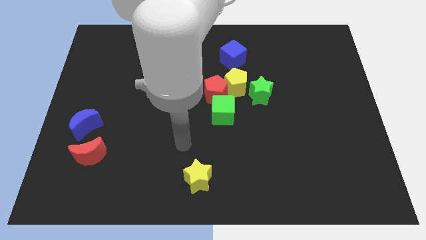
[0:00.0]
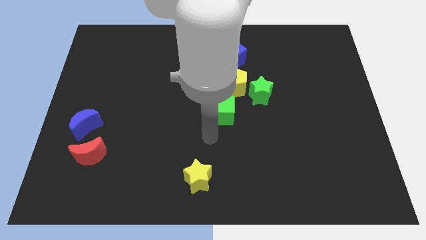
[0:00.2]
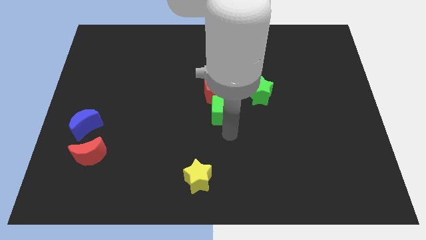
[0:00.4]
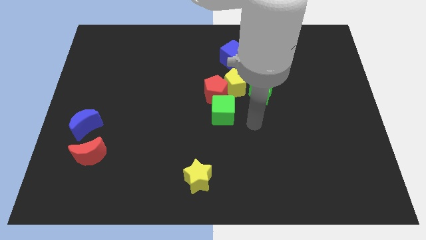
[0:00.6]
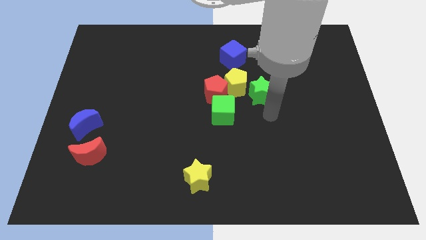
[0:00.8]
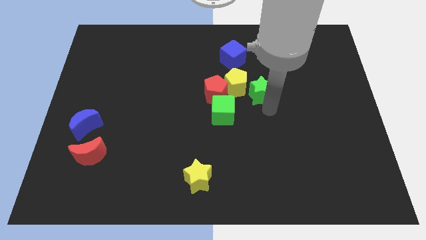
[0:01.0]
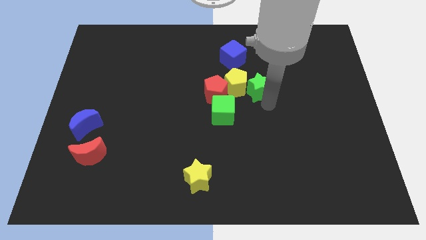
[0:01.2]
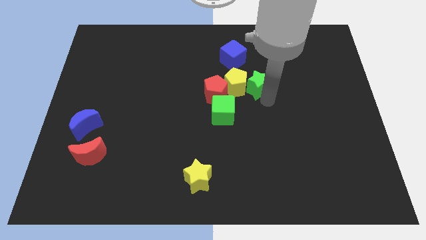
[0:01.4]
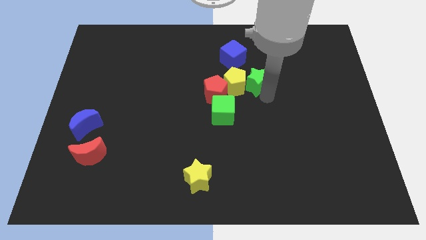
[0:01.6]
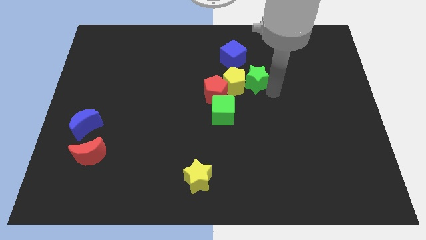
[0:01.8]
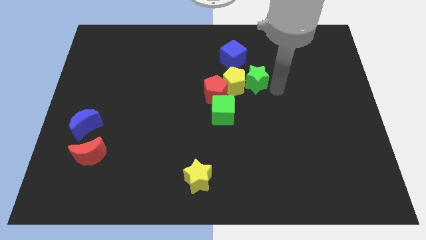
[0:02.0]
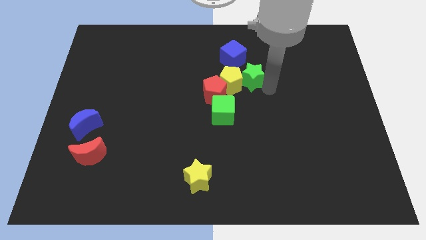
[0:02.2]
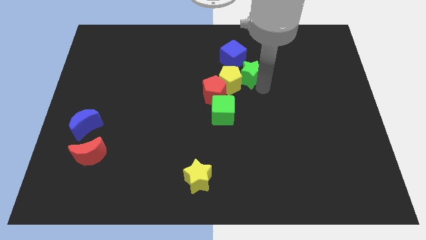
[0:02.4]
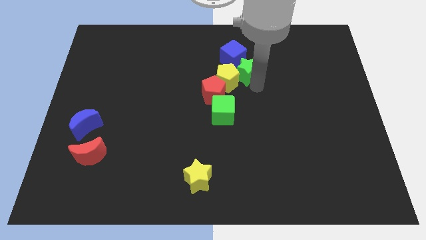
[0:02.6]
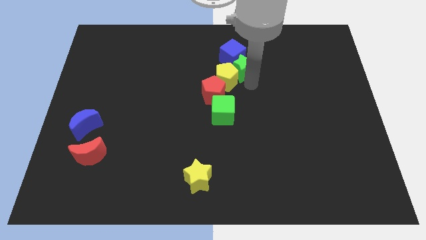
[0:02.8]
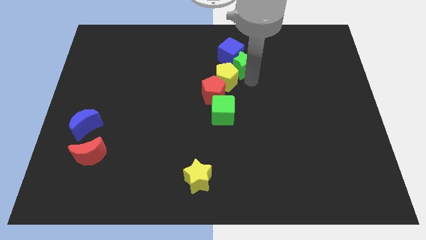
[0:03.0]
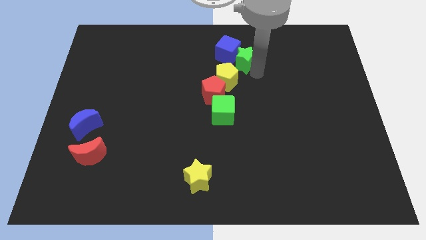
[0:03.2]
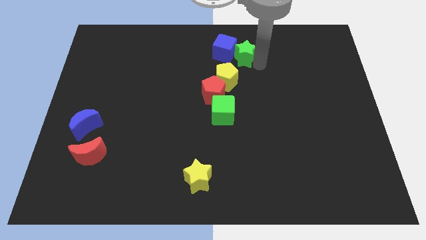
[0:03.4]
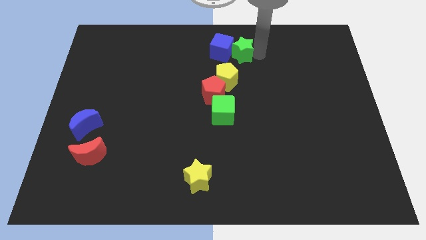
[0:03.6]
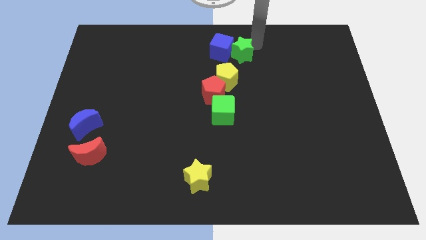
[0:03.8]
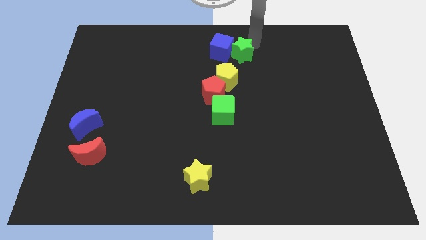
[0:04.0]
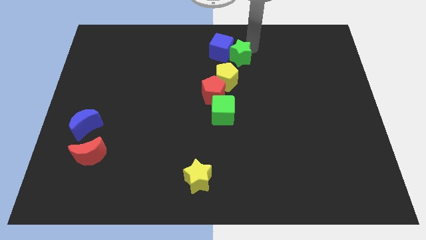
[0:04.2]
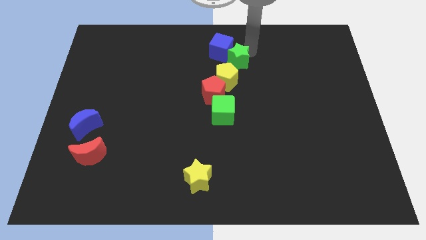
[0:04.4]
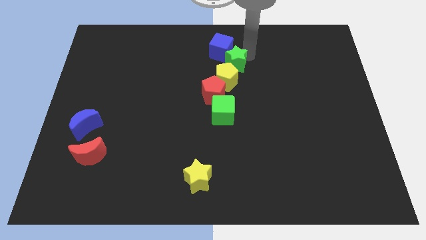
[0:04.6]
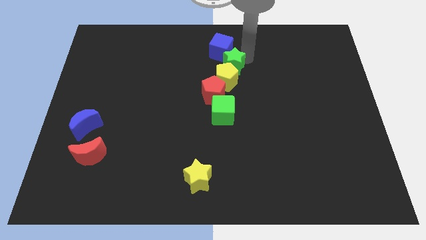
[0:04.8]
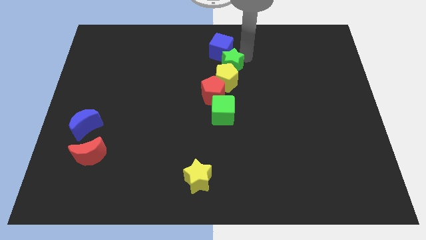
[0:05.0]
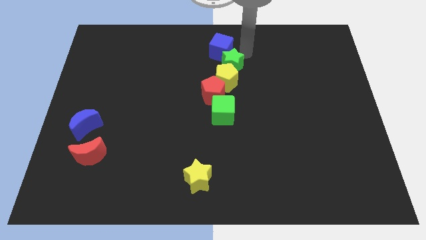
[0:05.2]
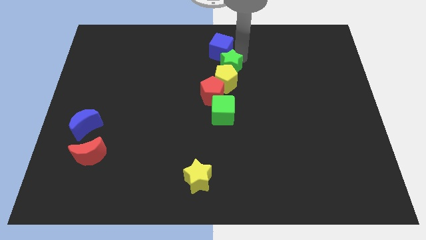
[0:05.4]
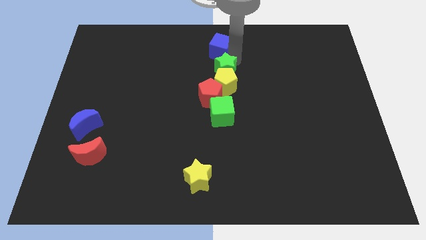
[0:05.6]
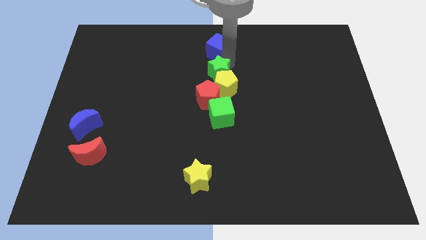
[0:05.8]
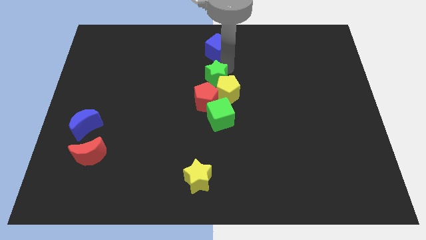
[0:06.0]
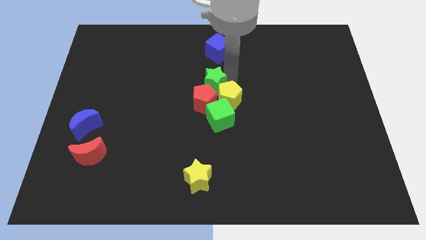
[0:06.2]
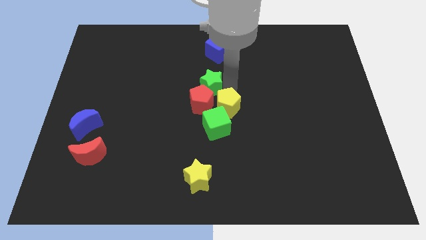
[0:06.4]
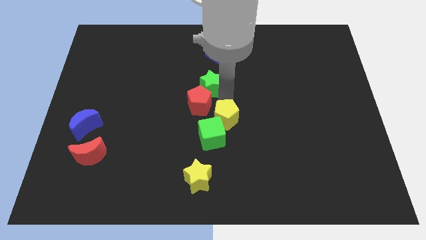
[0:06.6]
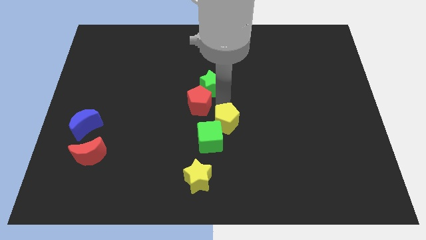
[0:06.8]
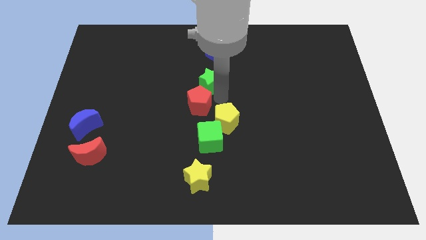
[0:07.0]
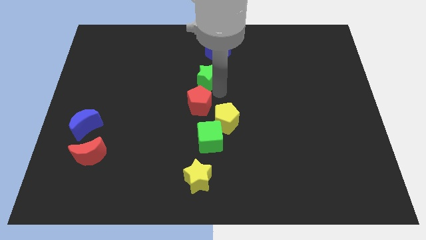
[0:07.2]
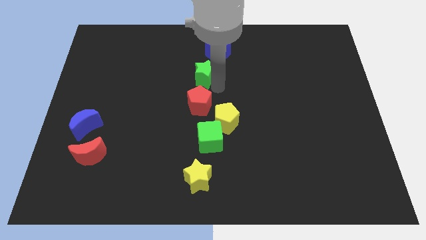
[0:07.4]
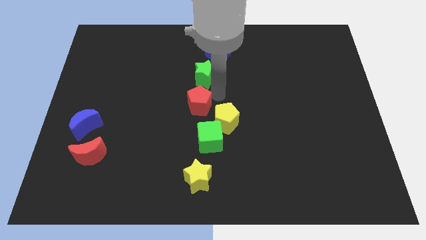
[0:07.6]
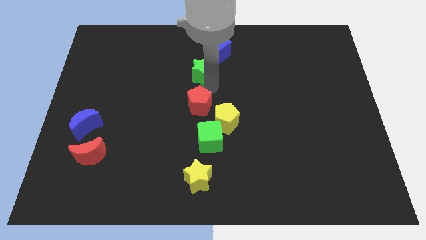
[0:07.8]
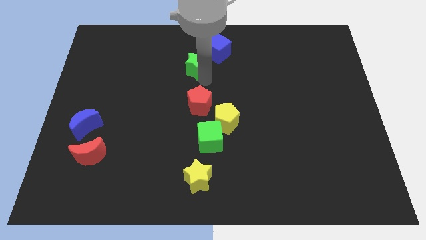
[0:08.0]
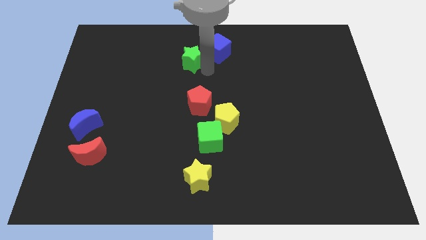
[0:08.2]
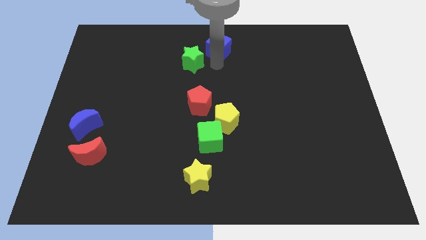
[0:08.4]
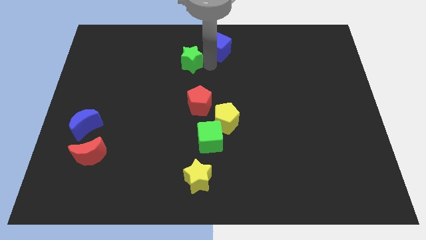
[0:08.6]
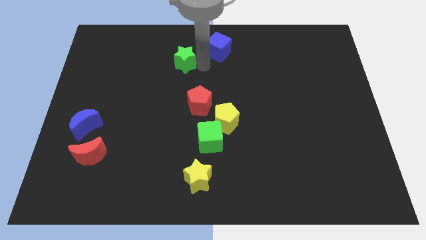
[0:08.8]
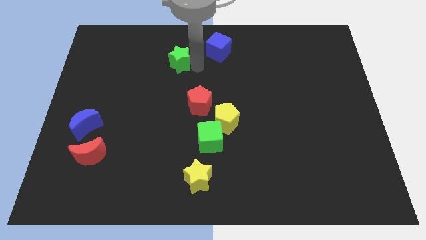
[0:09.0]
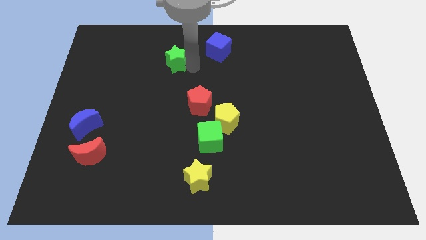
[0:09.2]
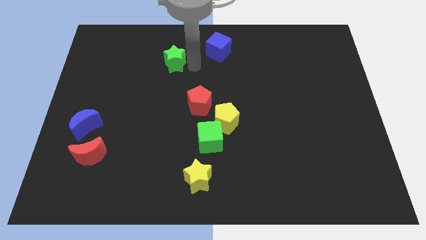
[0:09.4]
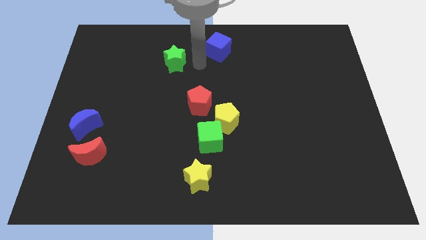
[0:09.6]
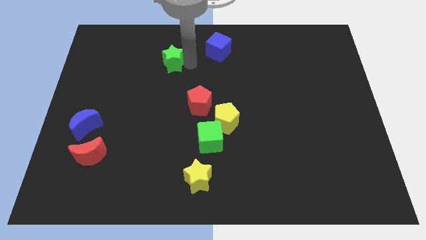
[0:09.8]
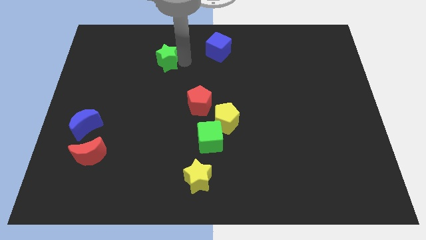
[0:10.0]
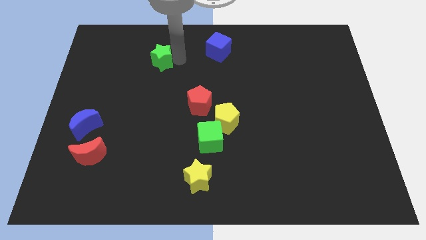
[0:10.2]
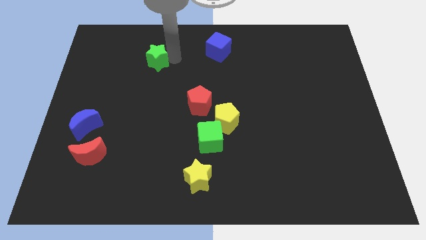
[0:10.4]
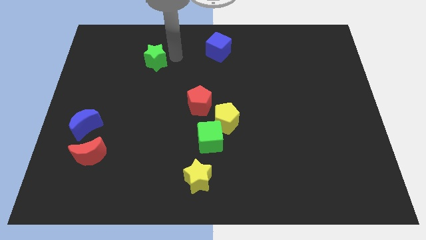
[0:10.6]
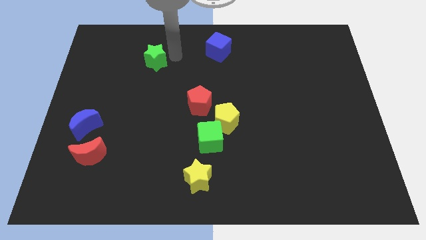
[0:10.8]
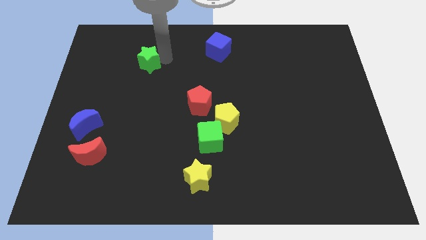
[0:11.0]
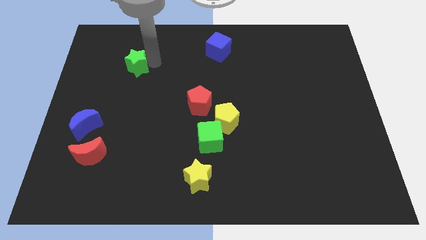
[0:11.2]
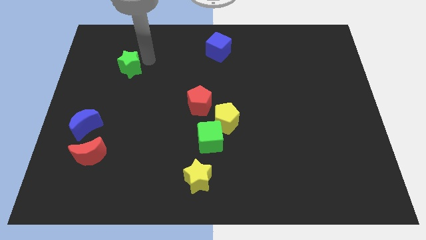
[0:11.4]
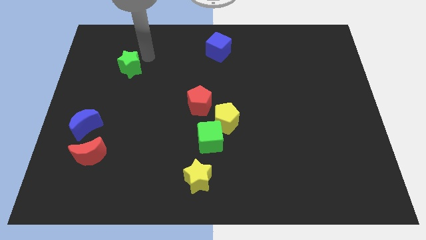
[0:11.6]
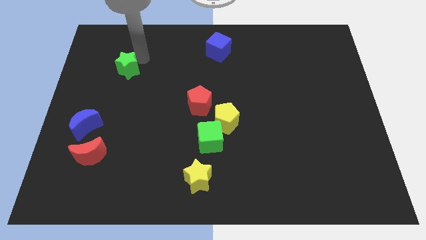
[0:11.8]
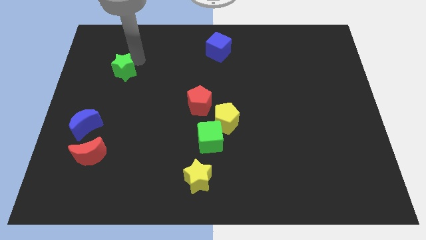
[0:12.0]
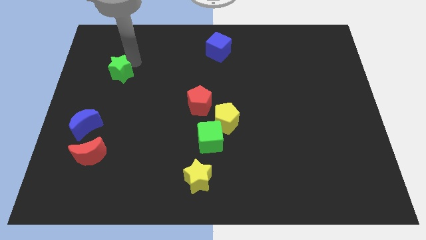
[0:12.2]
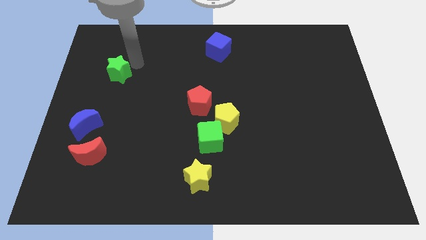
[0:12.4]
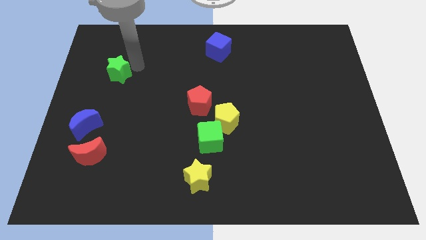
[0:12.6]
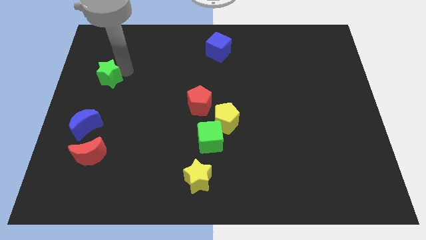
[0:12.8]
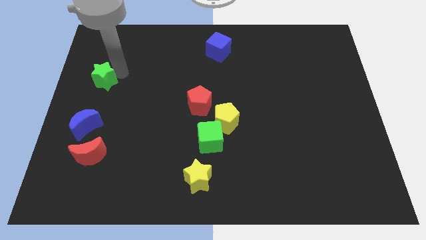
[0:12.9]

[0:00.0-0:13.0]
move the green star to the left side of the board

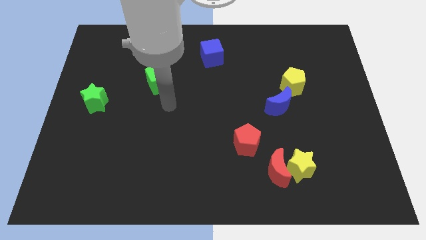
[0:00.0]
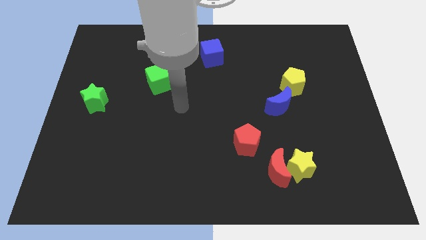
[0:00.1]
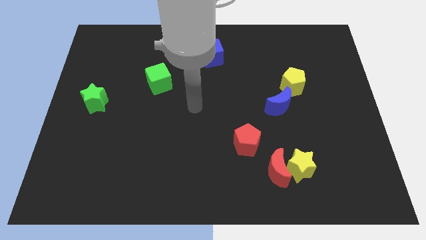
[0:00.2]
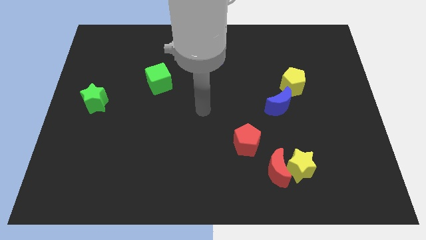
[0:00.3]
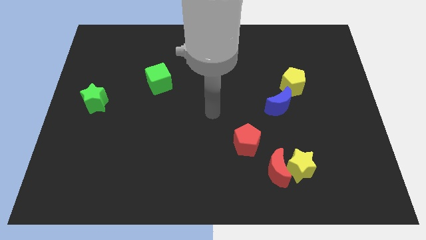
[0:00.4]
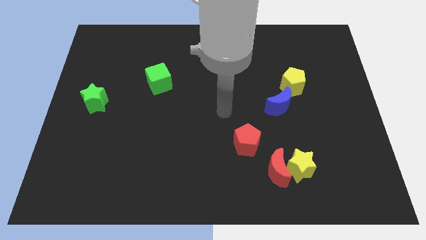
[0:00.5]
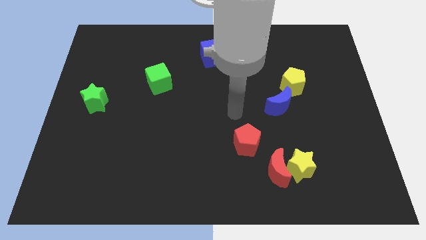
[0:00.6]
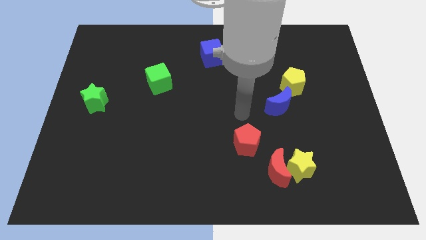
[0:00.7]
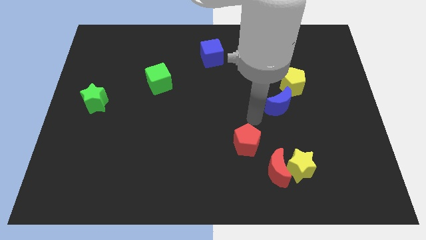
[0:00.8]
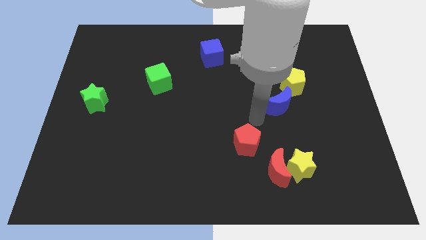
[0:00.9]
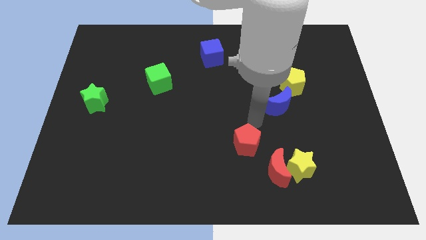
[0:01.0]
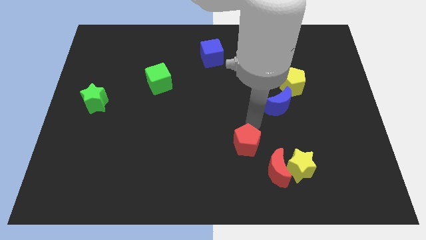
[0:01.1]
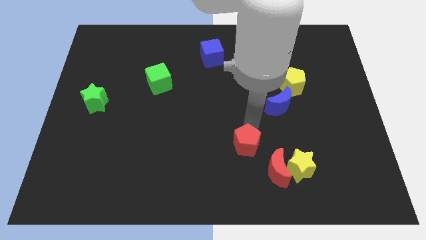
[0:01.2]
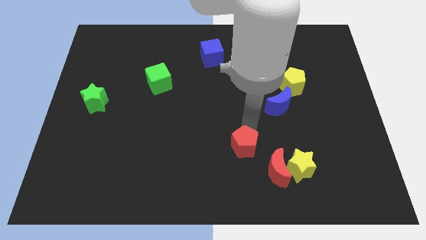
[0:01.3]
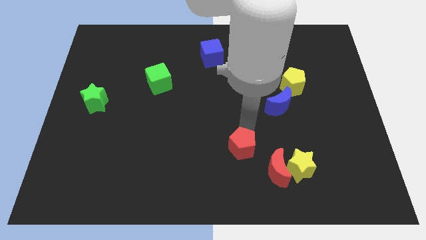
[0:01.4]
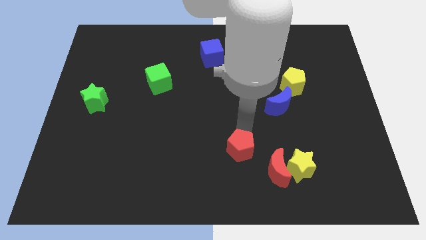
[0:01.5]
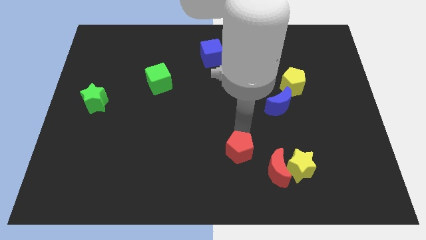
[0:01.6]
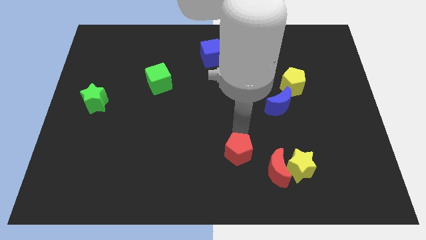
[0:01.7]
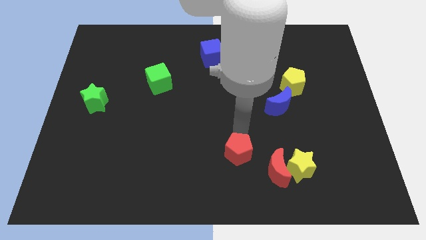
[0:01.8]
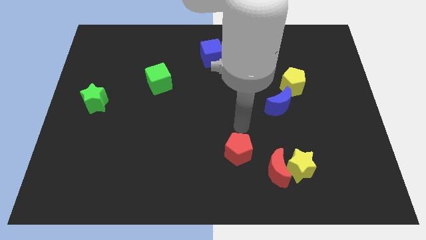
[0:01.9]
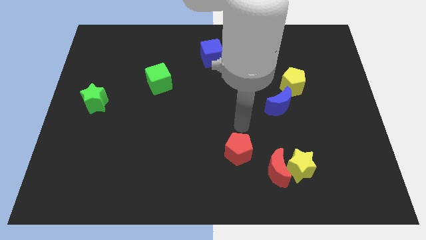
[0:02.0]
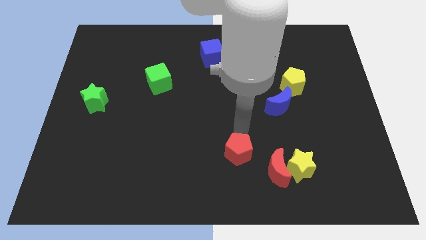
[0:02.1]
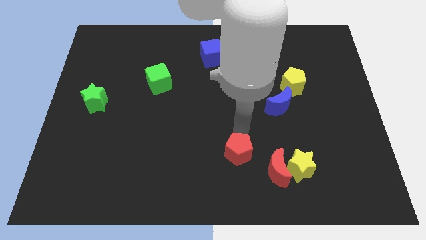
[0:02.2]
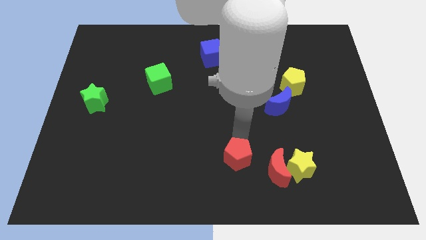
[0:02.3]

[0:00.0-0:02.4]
move the red pentagon to the bottom side
